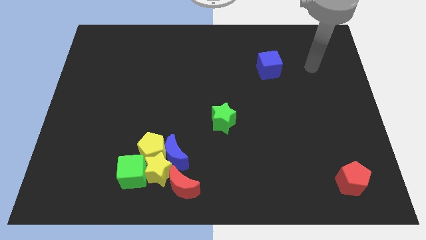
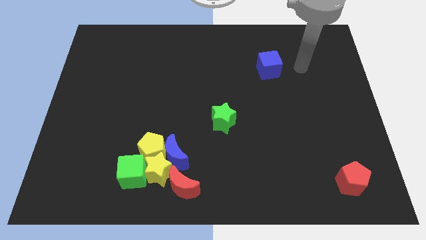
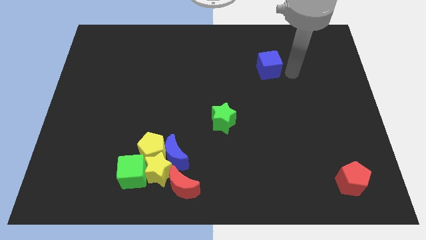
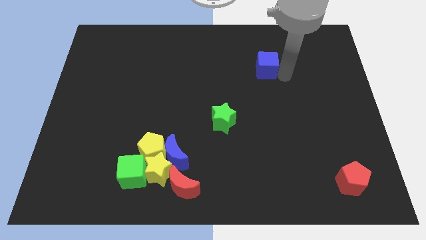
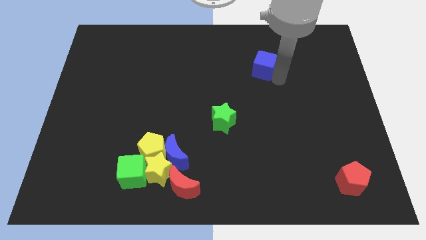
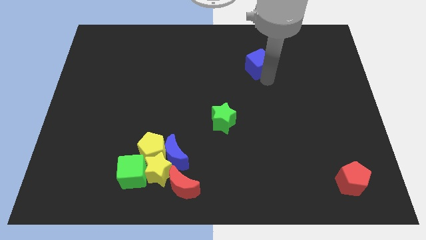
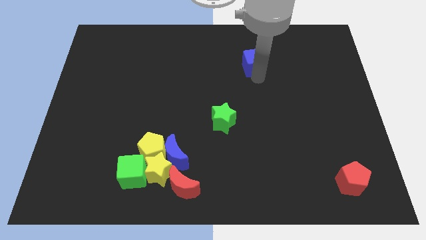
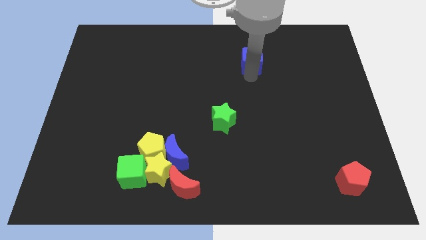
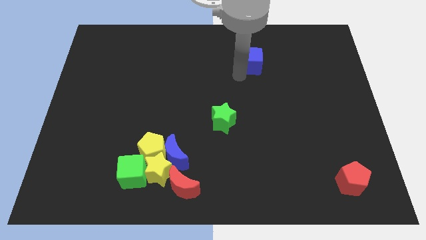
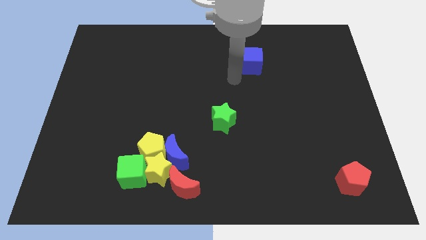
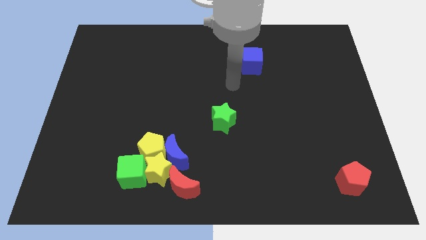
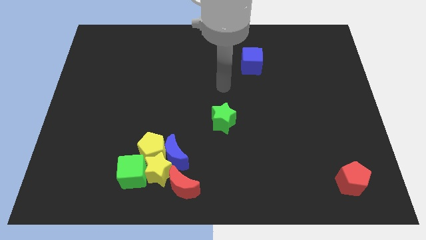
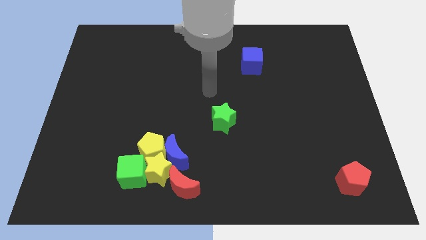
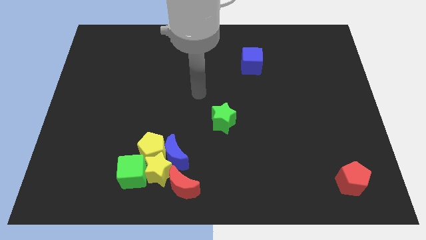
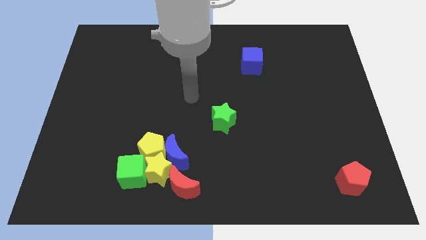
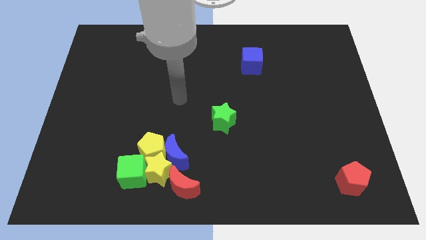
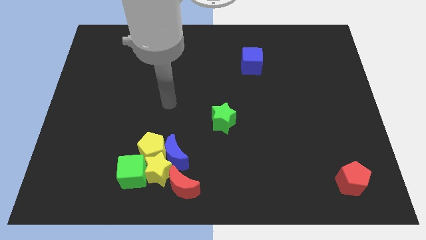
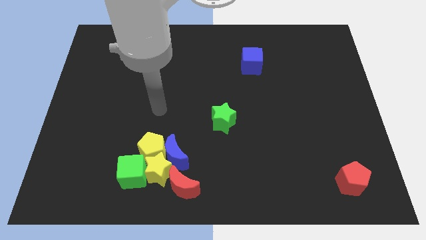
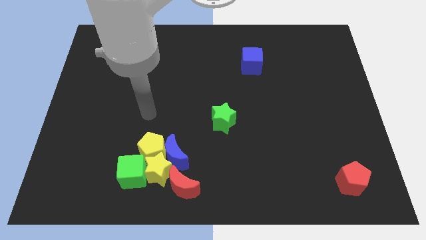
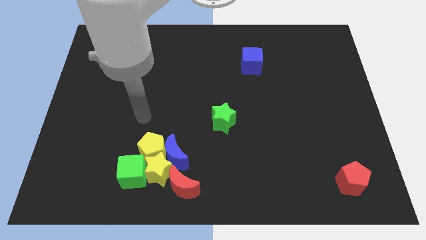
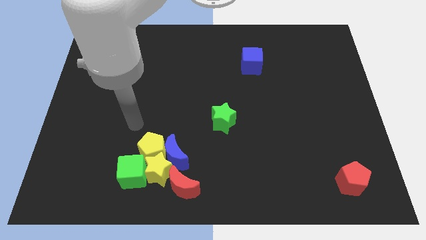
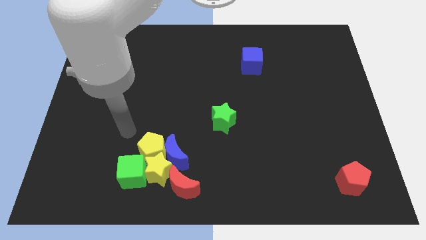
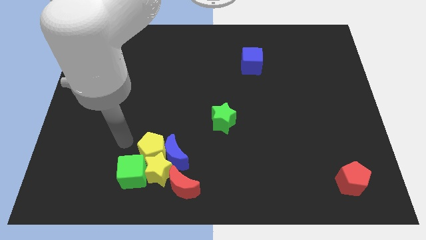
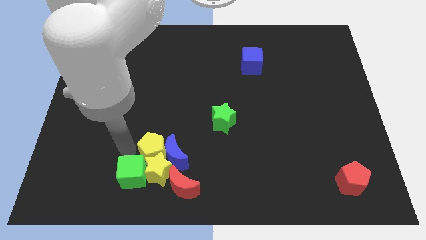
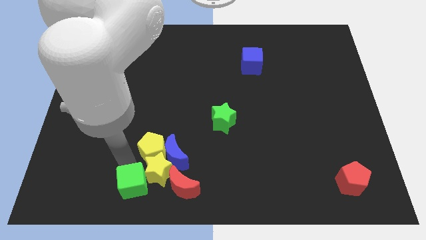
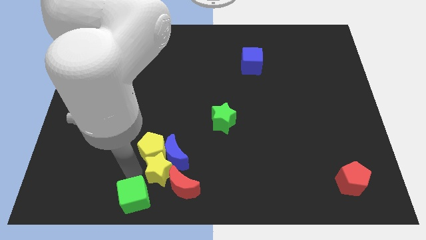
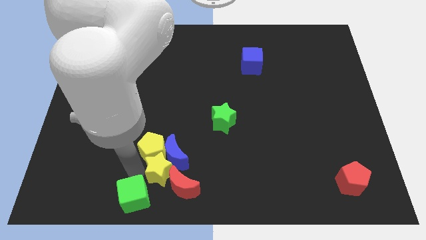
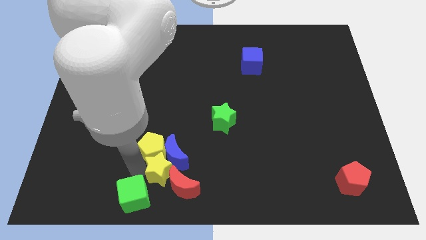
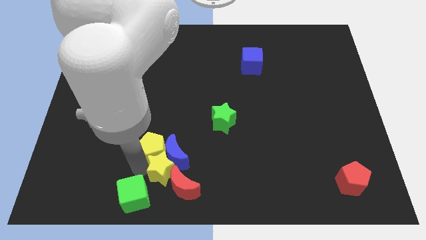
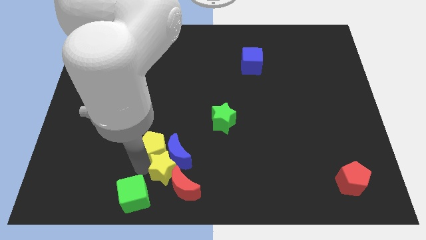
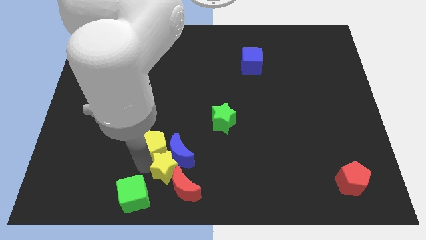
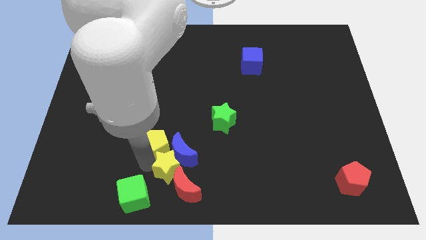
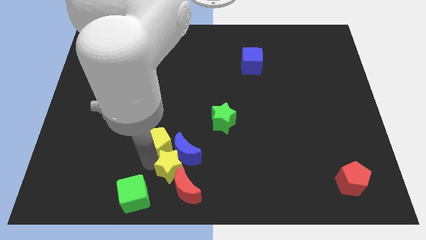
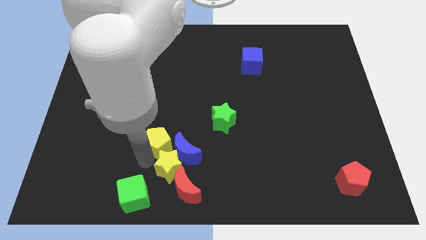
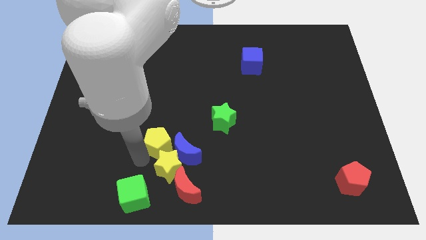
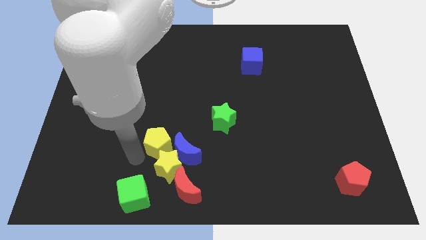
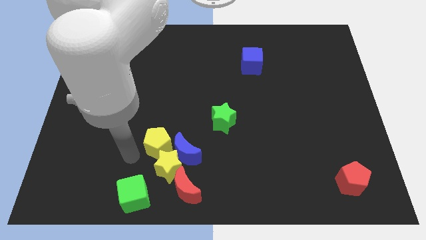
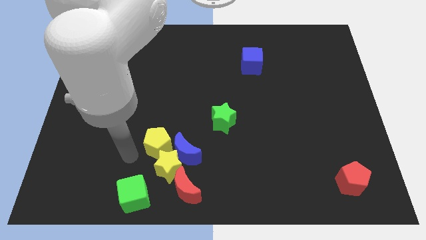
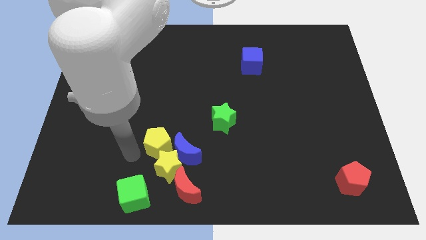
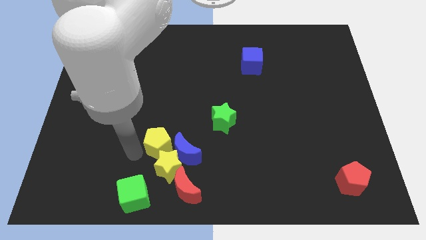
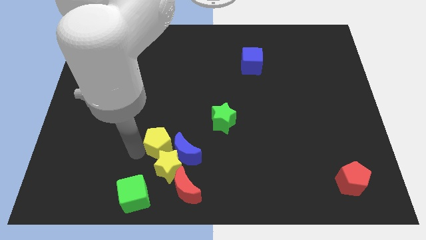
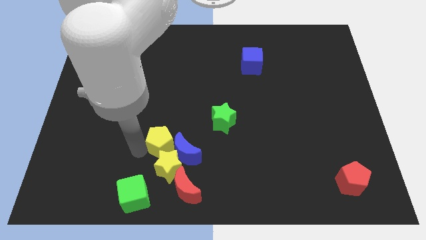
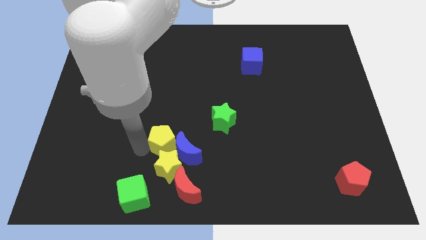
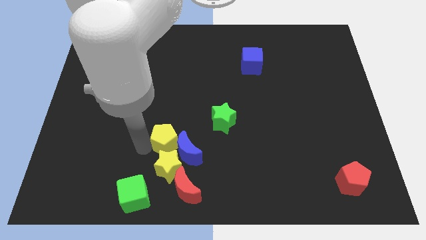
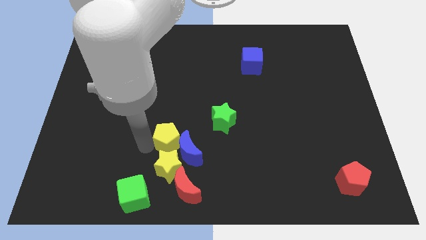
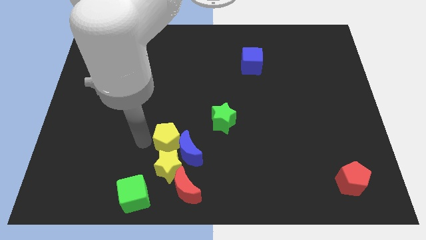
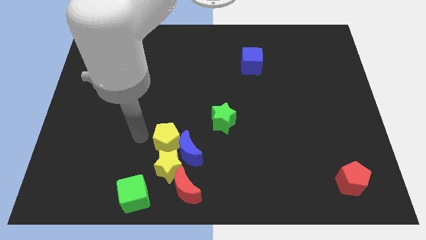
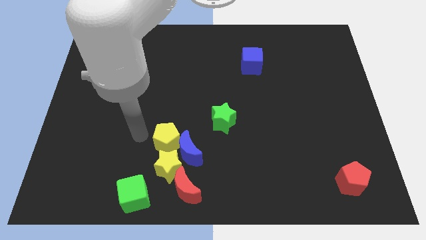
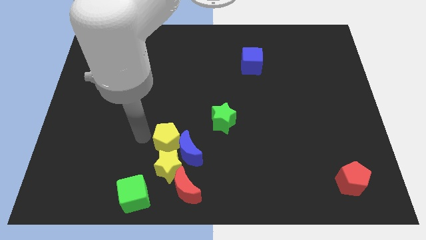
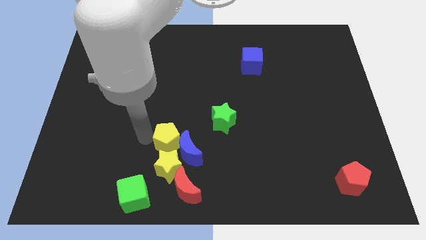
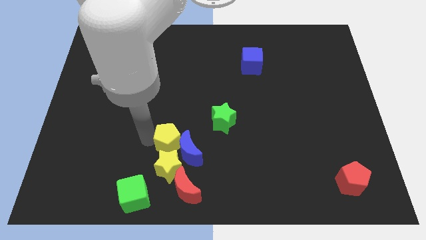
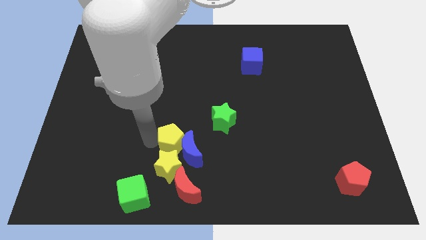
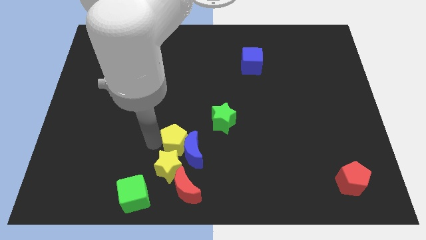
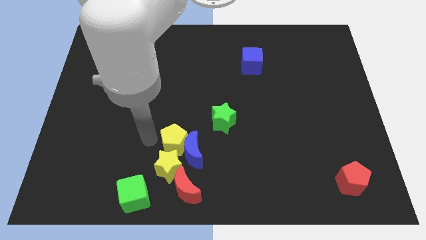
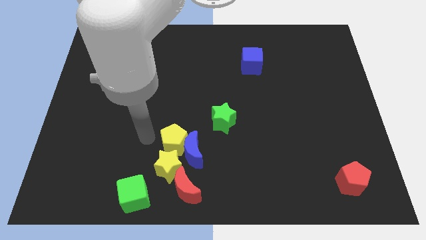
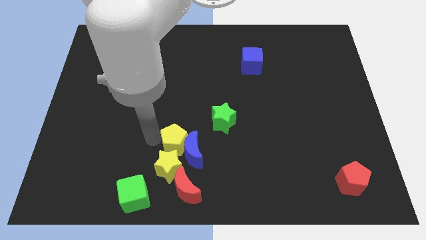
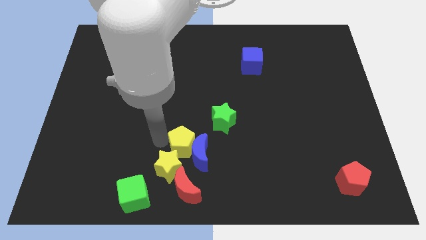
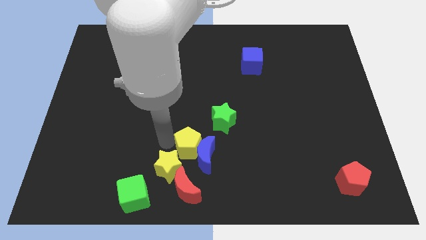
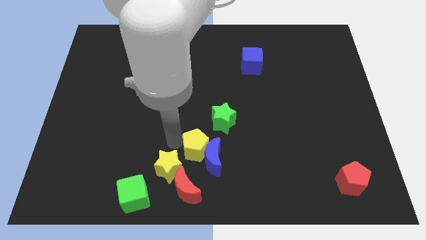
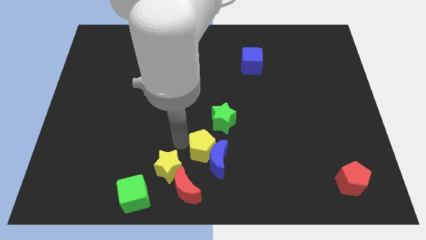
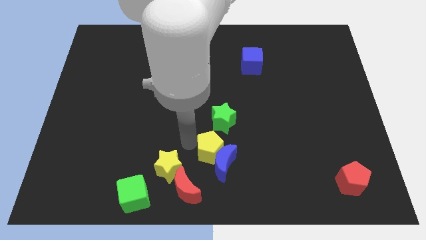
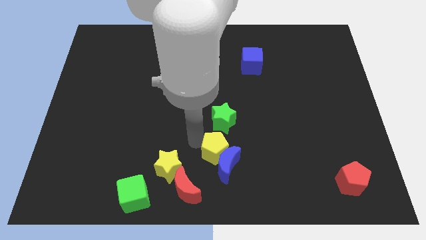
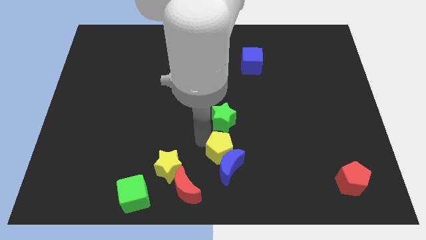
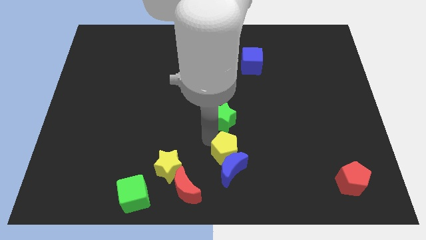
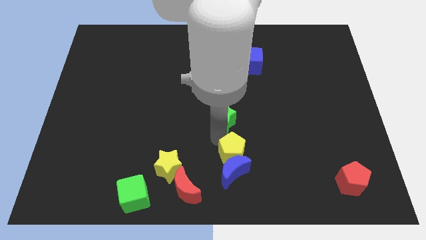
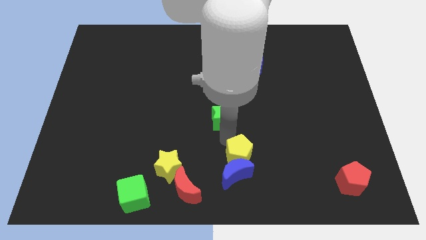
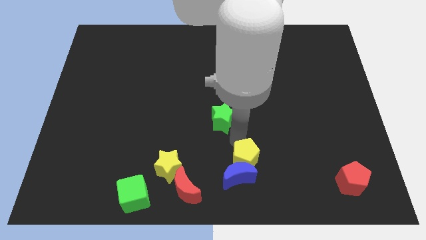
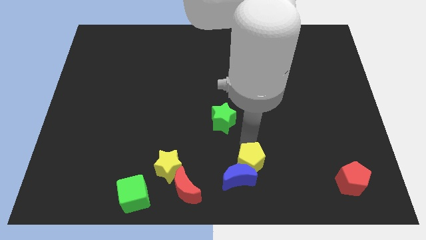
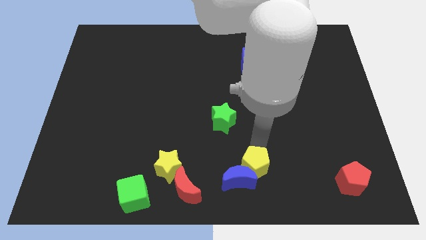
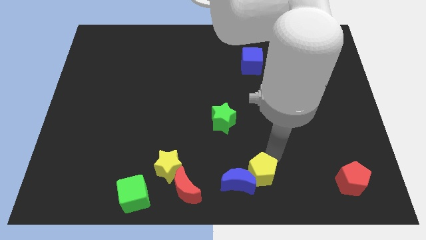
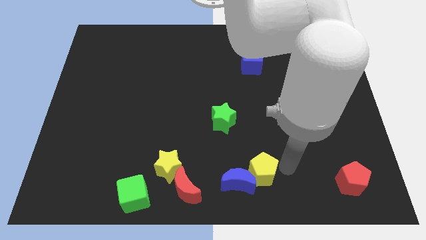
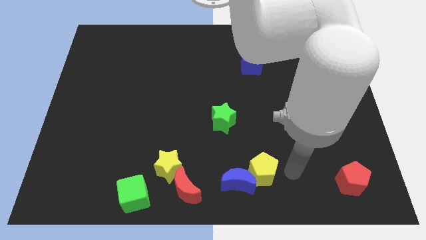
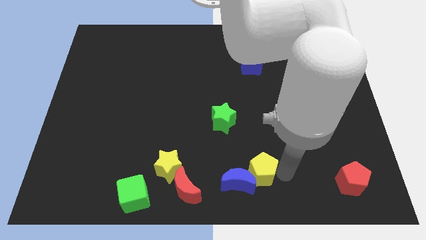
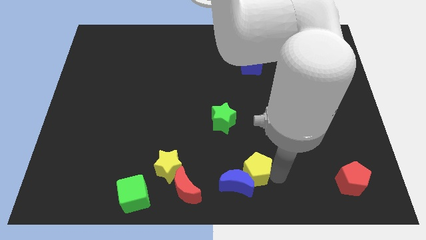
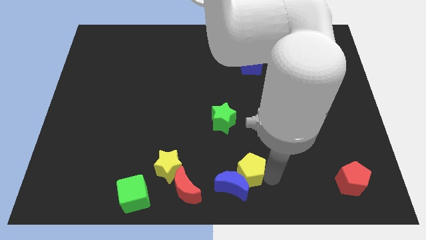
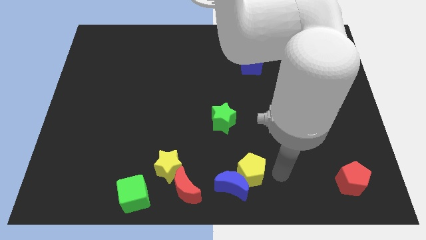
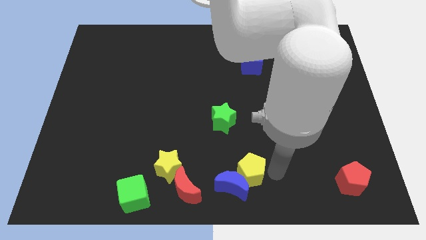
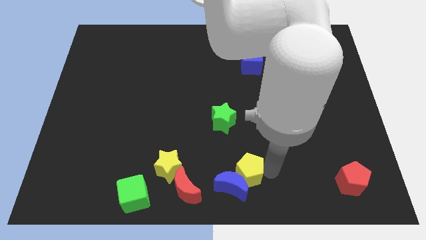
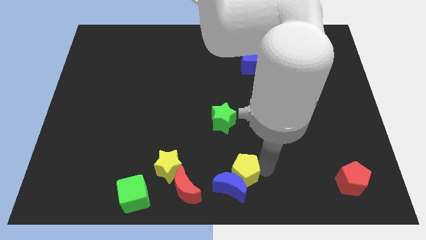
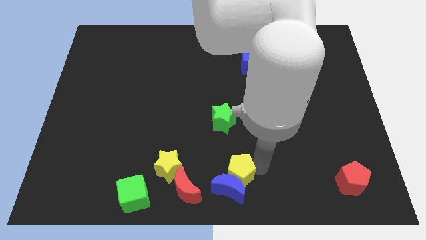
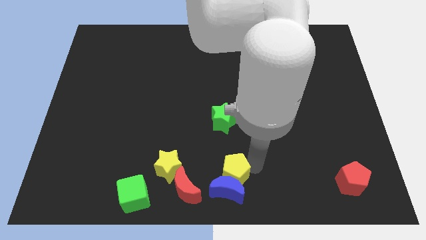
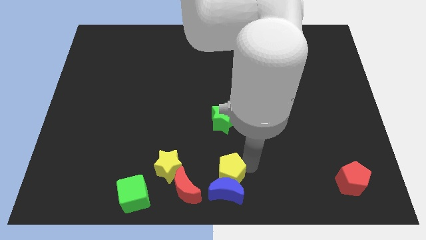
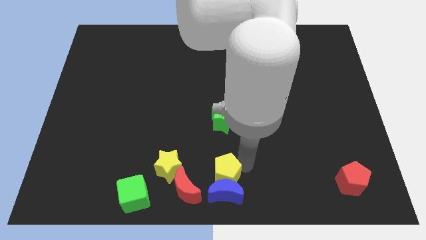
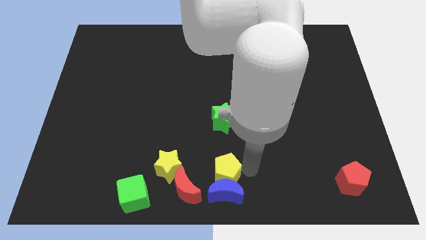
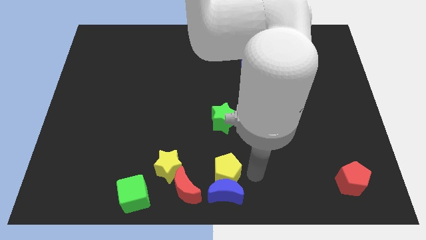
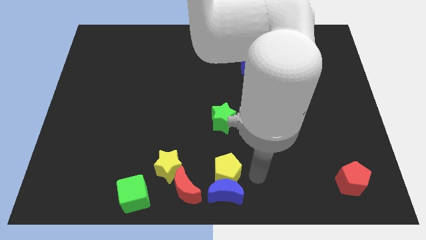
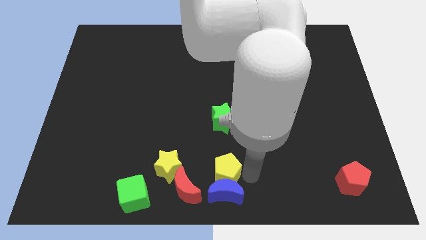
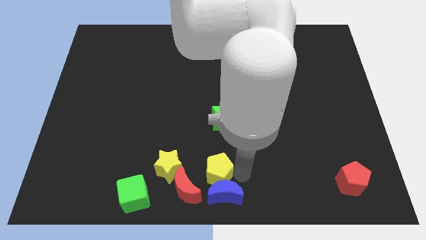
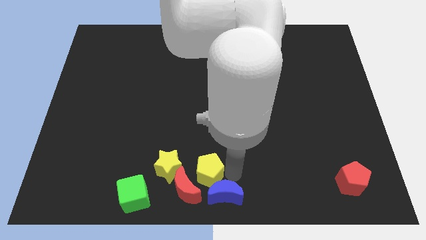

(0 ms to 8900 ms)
move the yellow pentagon towards the red moon
